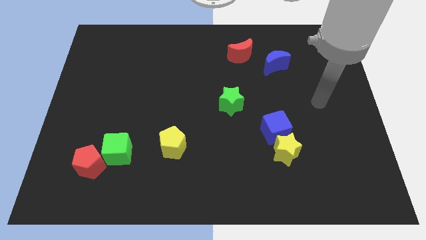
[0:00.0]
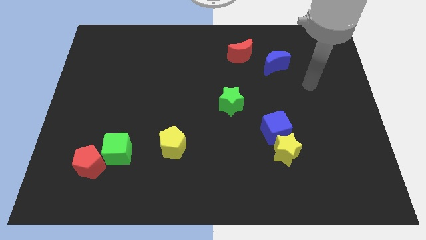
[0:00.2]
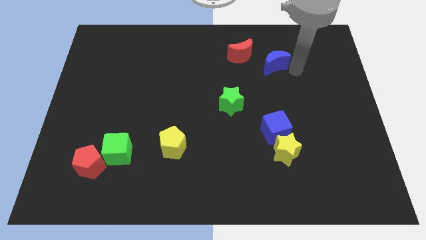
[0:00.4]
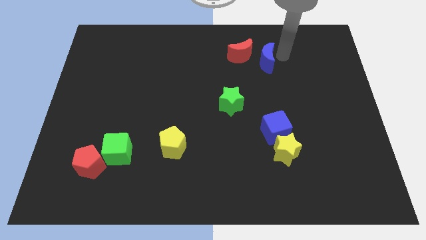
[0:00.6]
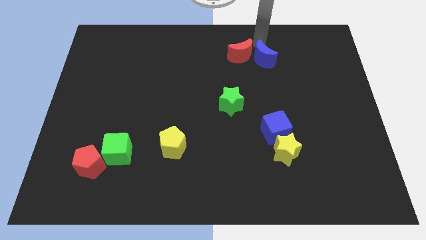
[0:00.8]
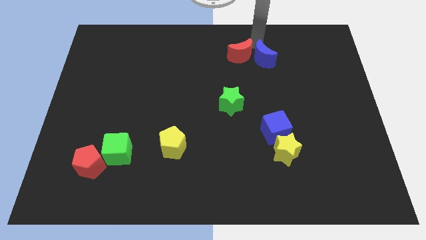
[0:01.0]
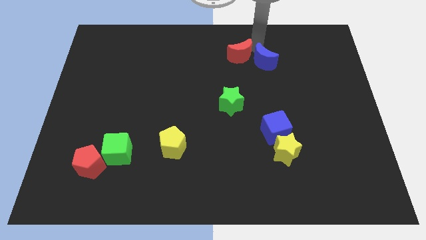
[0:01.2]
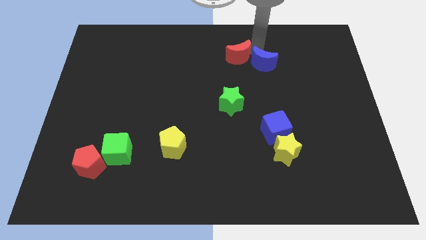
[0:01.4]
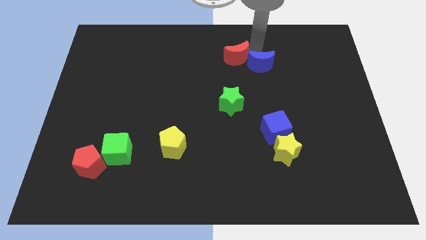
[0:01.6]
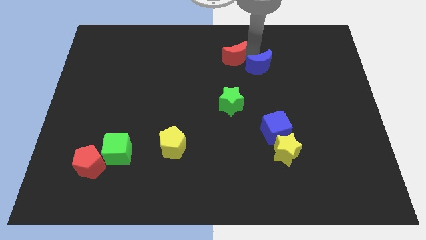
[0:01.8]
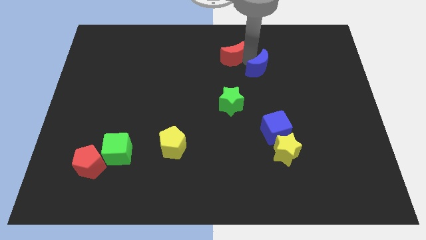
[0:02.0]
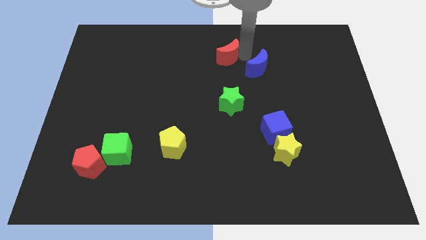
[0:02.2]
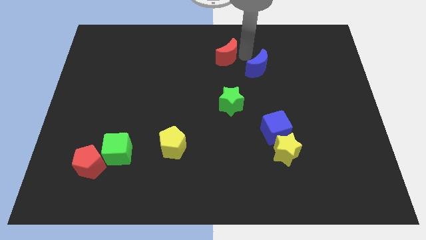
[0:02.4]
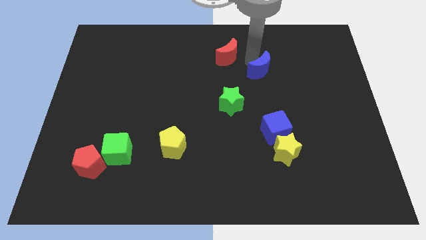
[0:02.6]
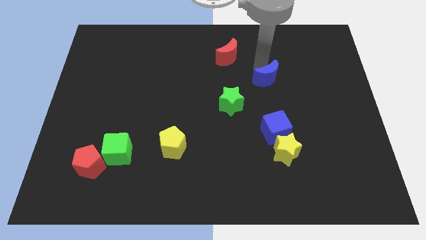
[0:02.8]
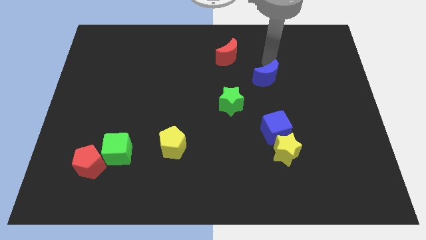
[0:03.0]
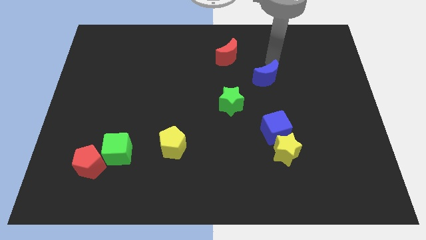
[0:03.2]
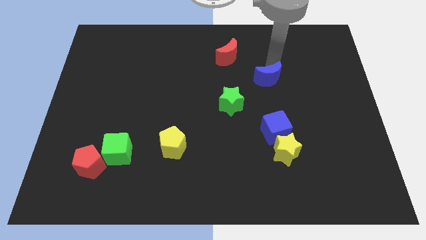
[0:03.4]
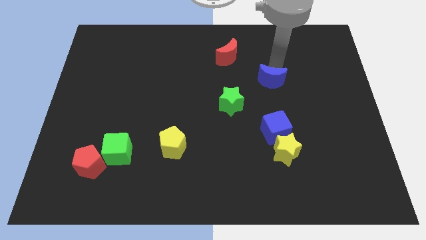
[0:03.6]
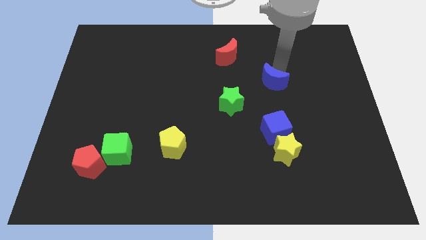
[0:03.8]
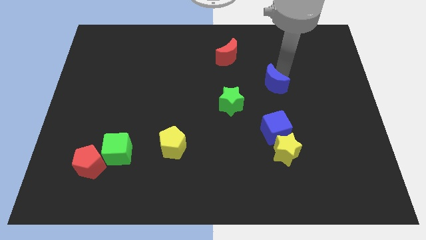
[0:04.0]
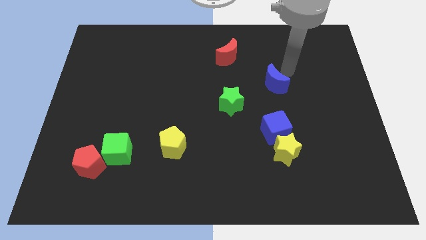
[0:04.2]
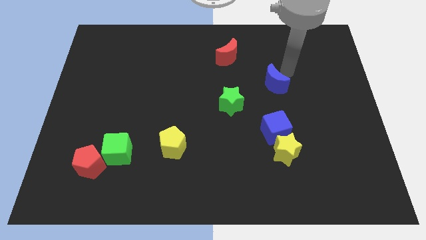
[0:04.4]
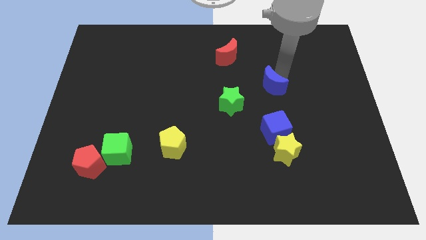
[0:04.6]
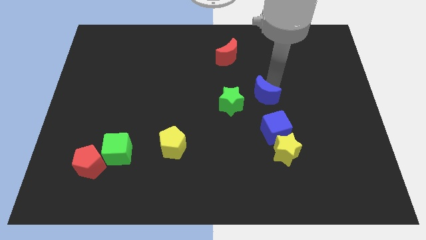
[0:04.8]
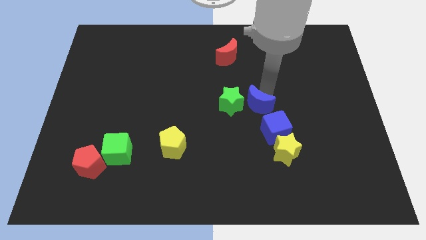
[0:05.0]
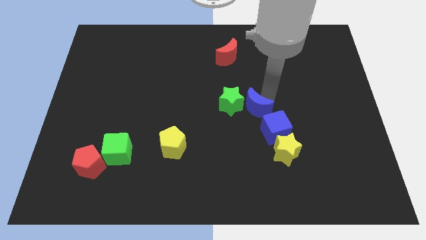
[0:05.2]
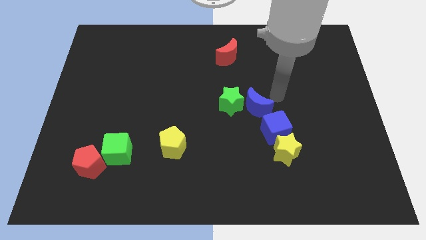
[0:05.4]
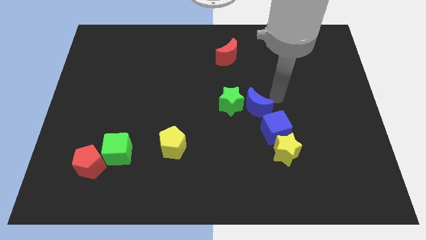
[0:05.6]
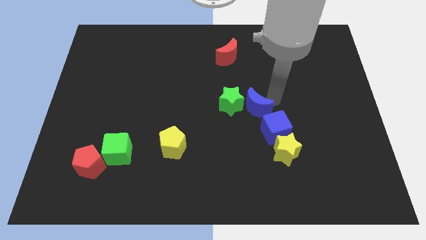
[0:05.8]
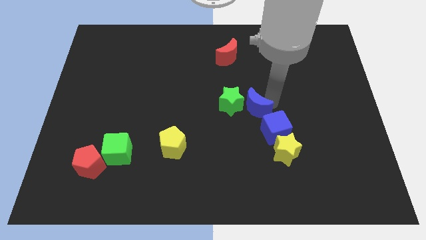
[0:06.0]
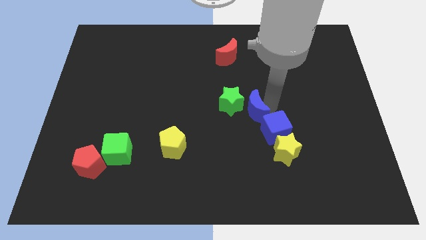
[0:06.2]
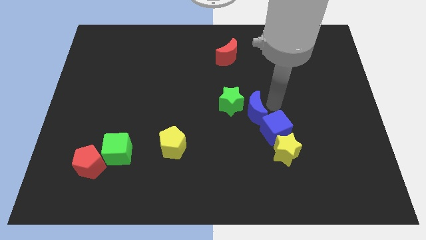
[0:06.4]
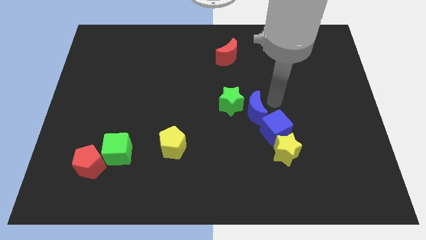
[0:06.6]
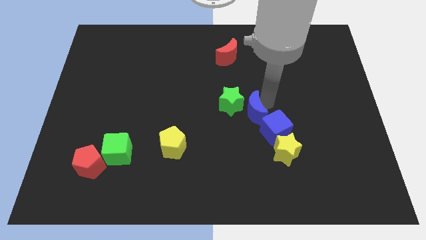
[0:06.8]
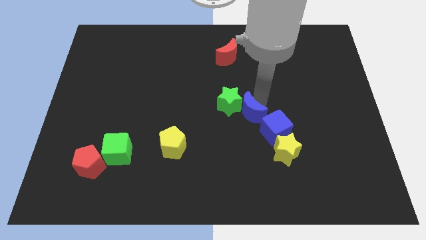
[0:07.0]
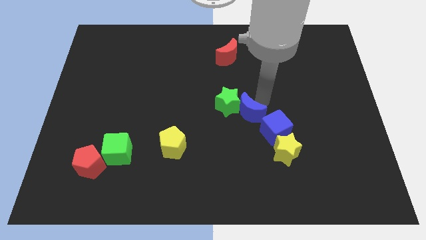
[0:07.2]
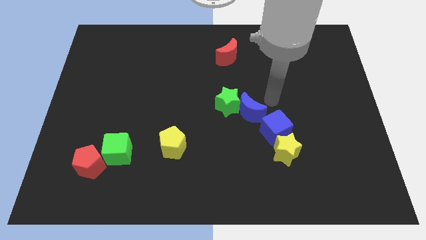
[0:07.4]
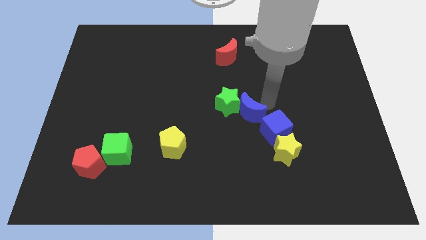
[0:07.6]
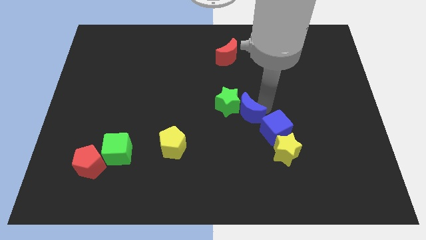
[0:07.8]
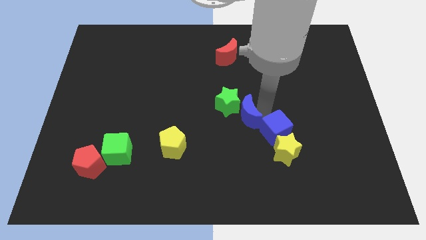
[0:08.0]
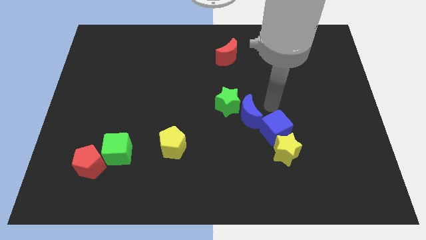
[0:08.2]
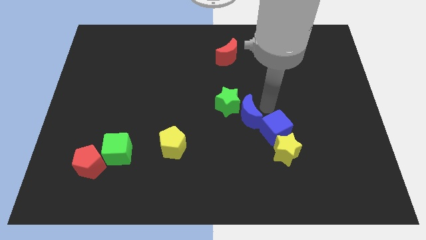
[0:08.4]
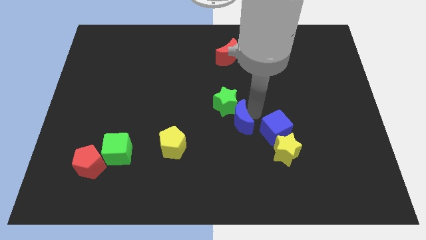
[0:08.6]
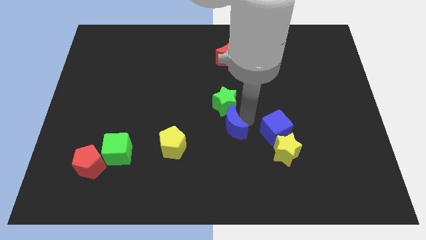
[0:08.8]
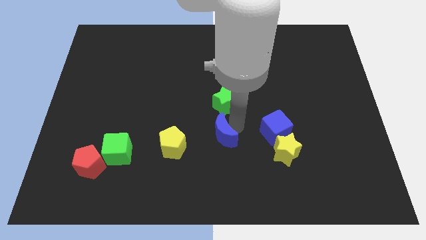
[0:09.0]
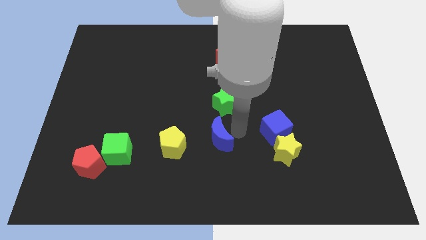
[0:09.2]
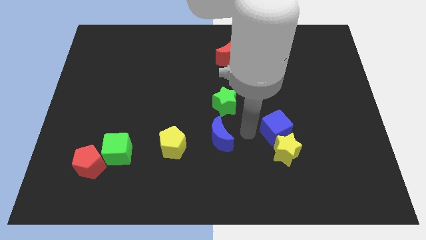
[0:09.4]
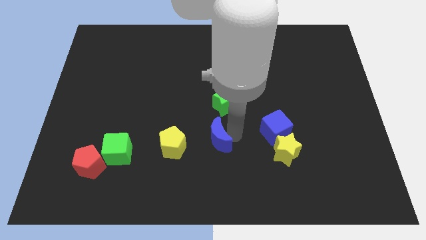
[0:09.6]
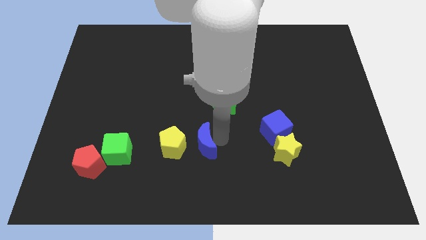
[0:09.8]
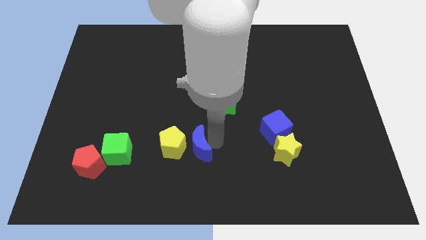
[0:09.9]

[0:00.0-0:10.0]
push the blue moon towards the yellow pentagon

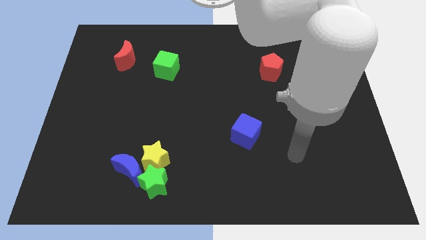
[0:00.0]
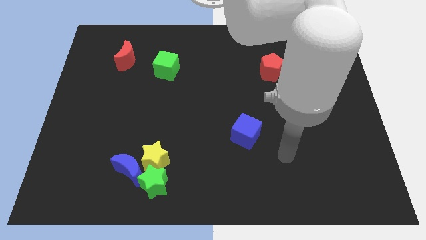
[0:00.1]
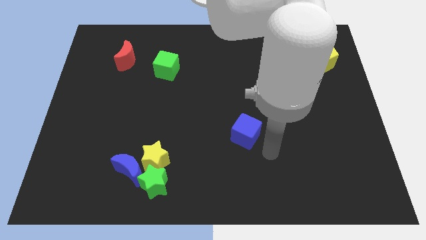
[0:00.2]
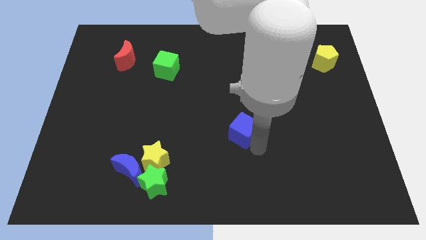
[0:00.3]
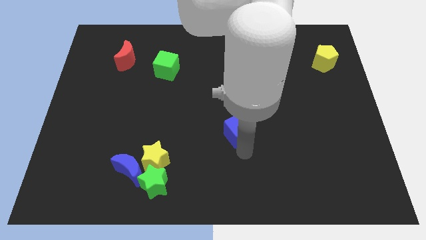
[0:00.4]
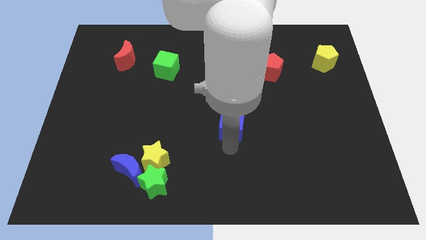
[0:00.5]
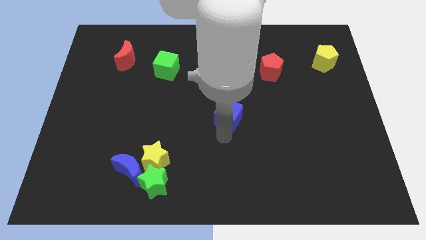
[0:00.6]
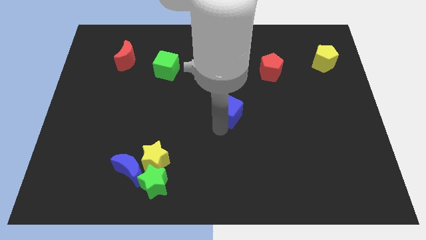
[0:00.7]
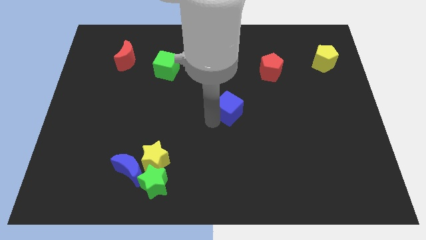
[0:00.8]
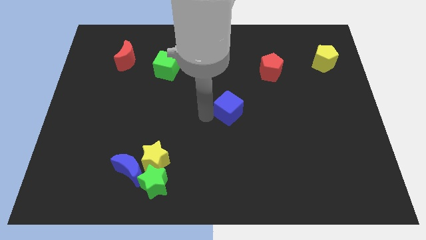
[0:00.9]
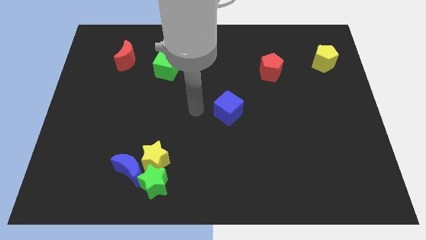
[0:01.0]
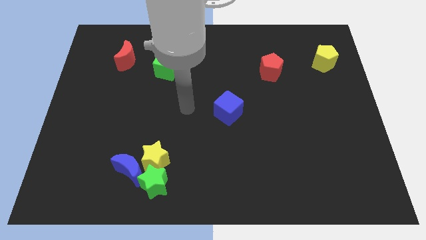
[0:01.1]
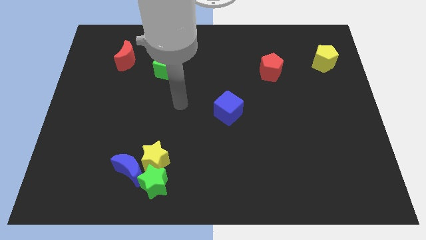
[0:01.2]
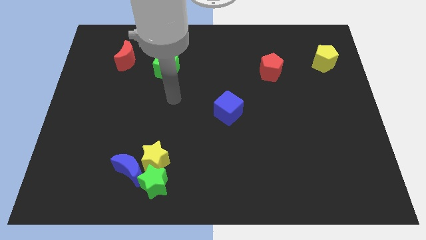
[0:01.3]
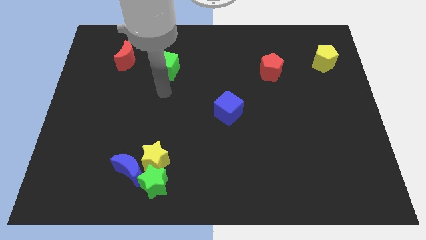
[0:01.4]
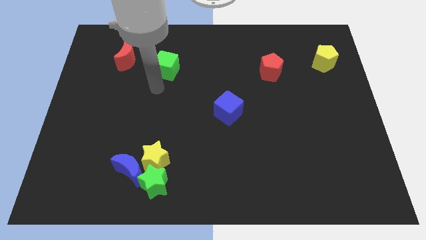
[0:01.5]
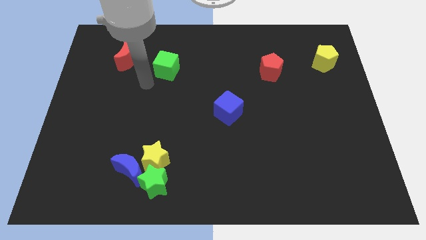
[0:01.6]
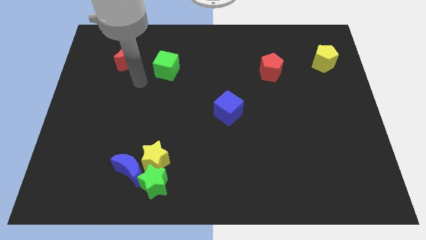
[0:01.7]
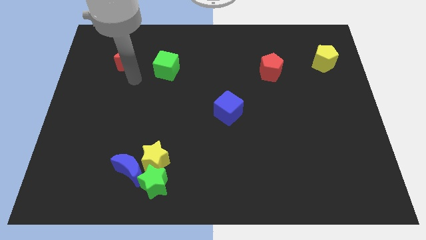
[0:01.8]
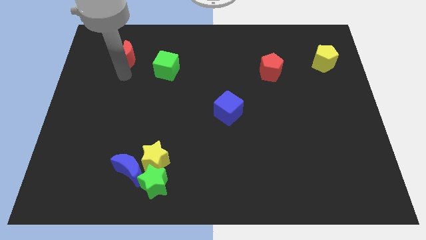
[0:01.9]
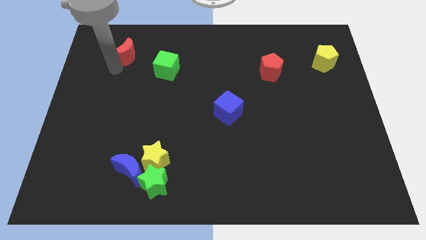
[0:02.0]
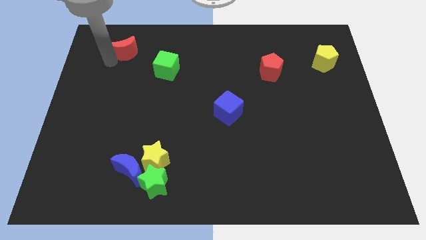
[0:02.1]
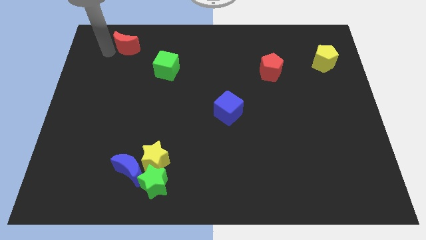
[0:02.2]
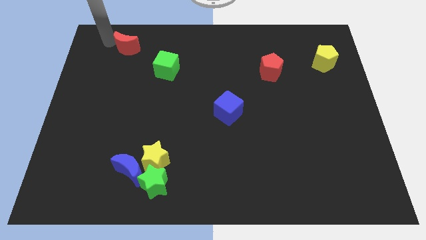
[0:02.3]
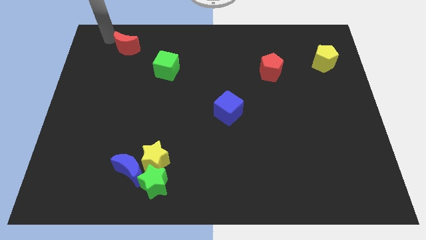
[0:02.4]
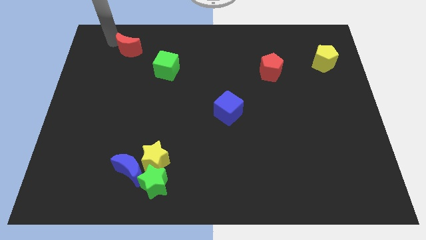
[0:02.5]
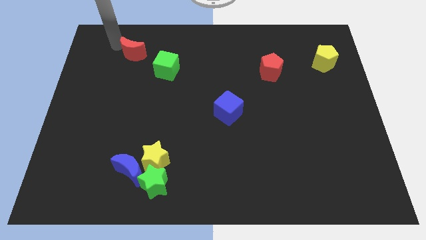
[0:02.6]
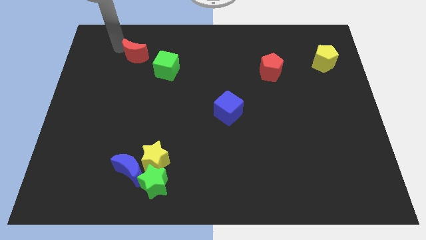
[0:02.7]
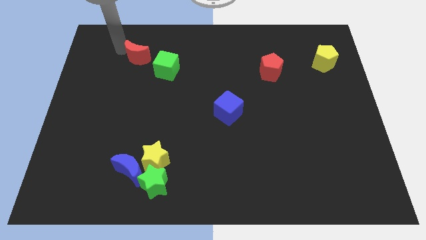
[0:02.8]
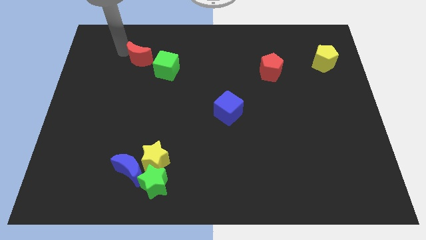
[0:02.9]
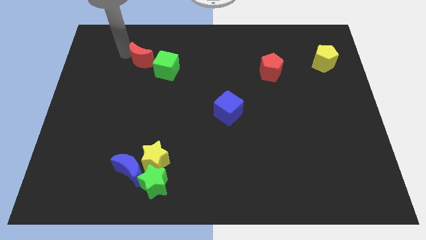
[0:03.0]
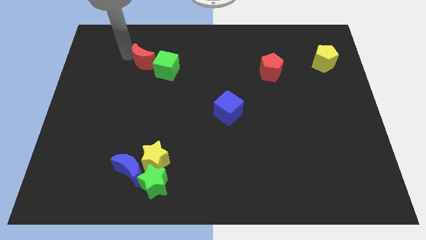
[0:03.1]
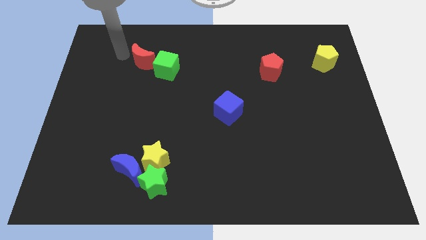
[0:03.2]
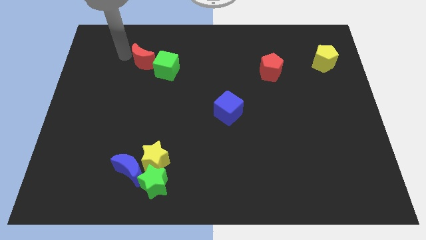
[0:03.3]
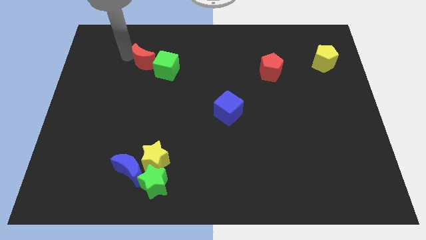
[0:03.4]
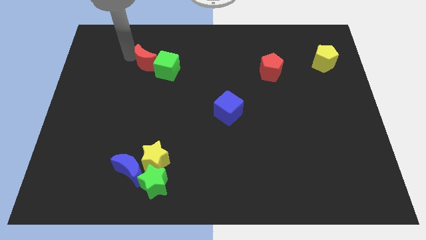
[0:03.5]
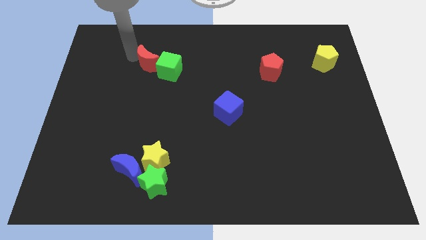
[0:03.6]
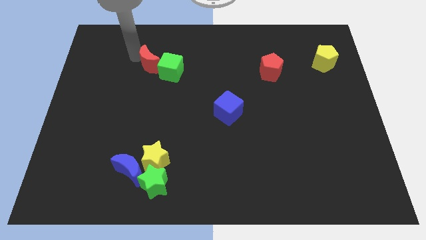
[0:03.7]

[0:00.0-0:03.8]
slide the red moon to the green cube
